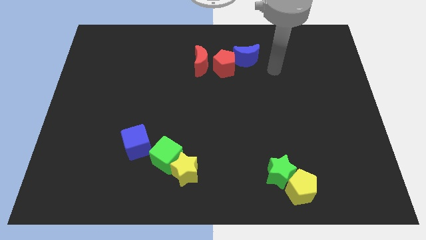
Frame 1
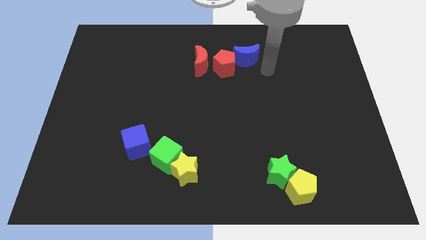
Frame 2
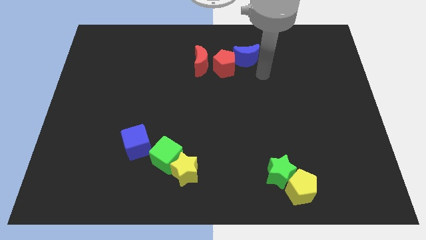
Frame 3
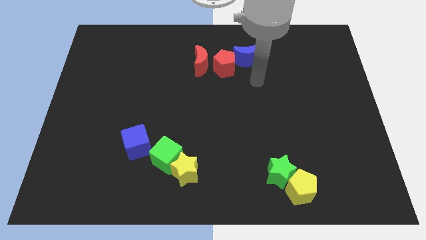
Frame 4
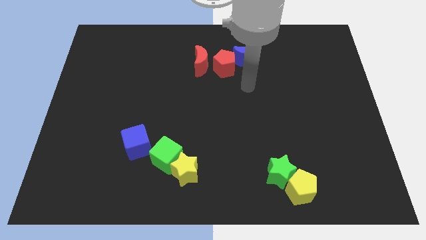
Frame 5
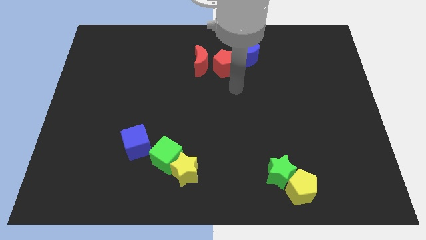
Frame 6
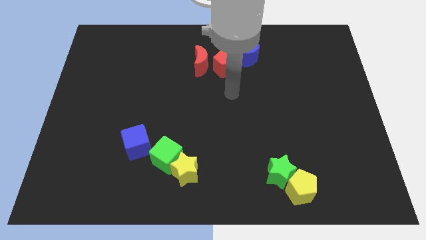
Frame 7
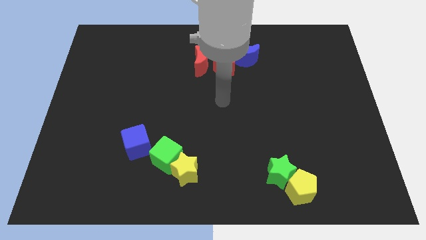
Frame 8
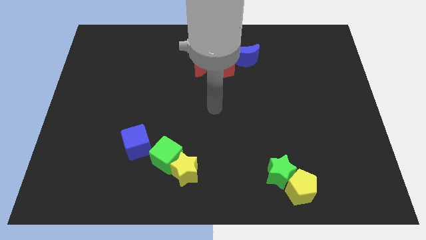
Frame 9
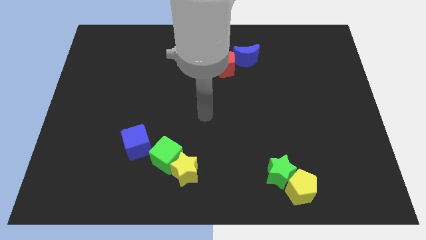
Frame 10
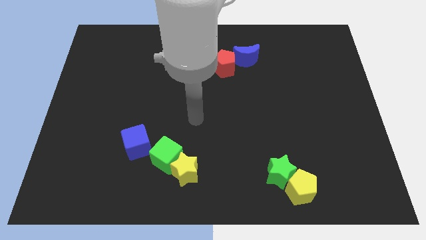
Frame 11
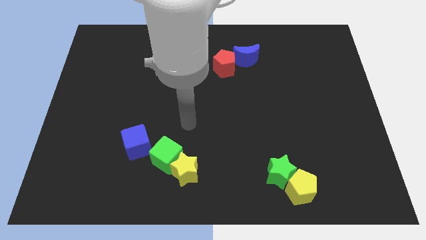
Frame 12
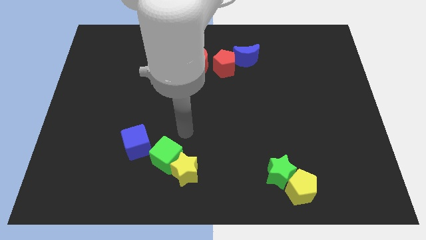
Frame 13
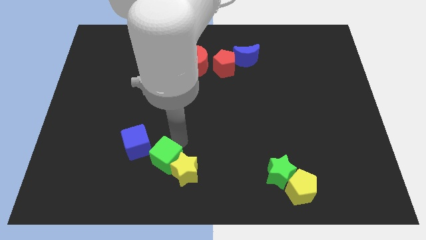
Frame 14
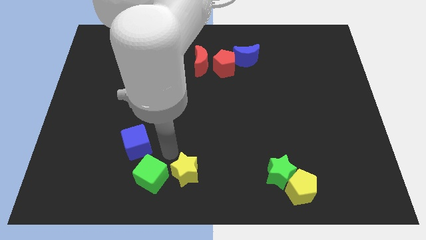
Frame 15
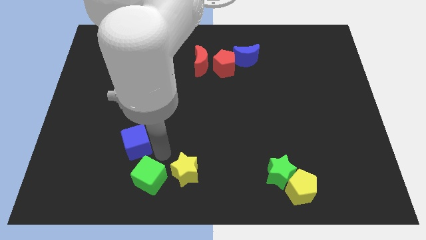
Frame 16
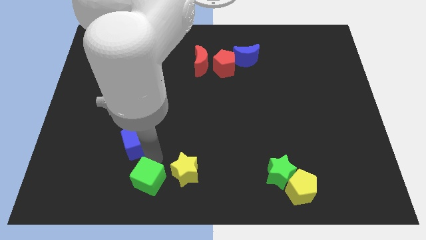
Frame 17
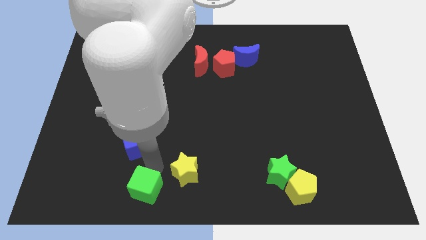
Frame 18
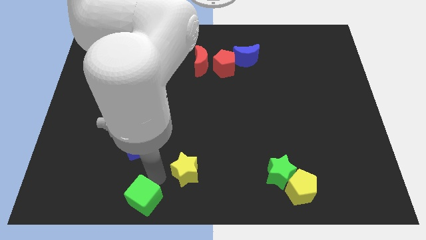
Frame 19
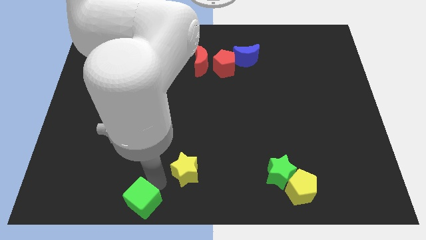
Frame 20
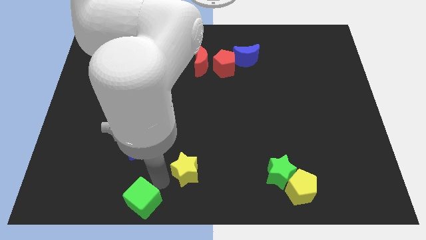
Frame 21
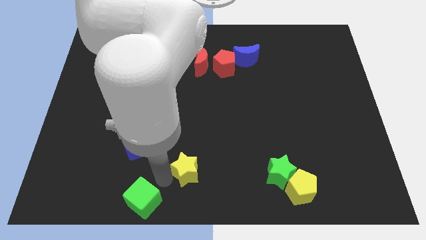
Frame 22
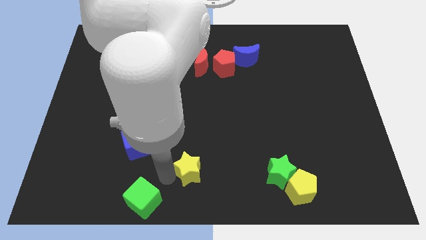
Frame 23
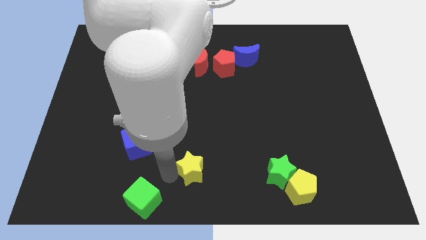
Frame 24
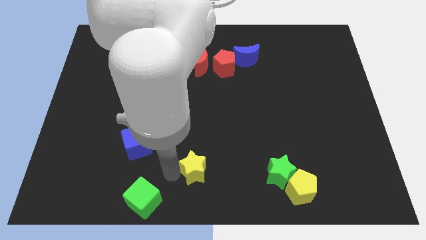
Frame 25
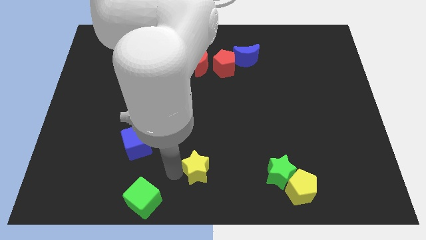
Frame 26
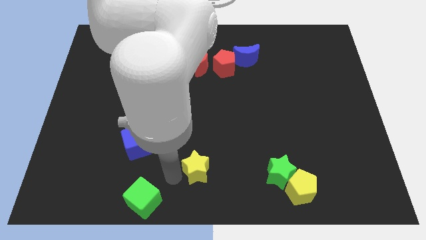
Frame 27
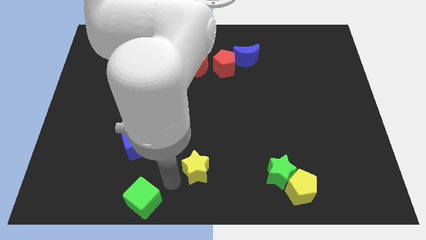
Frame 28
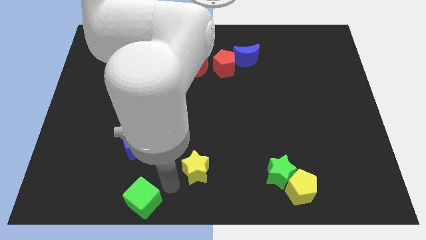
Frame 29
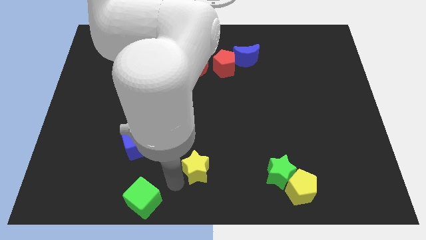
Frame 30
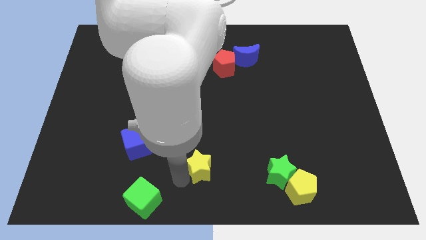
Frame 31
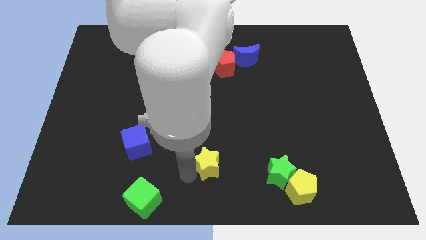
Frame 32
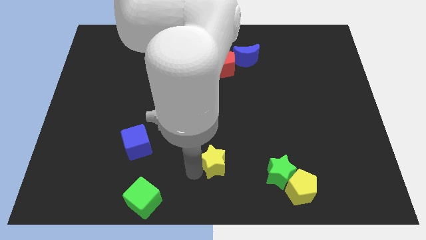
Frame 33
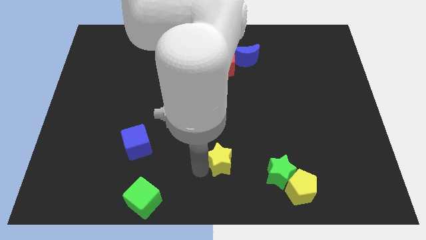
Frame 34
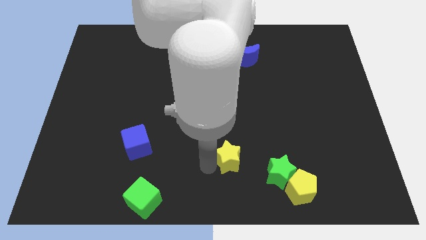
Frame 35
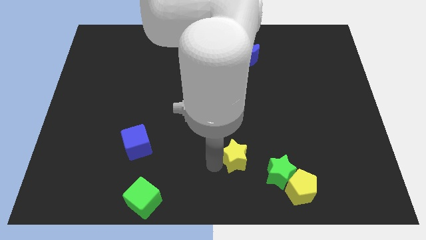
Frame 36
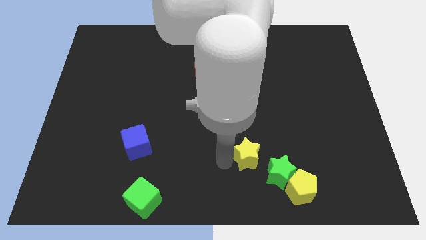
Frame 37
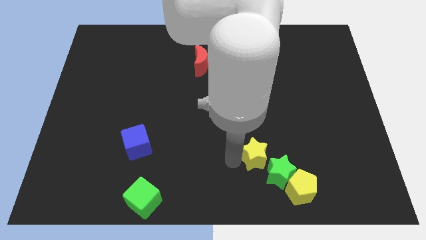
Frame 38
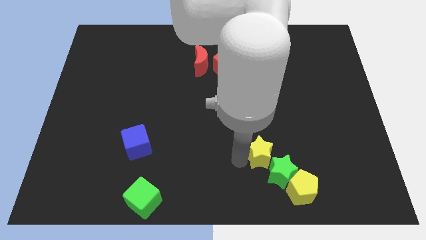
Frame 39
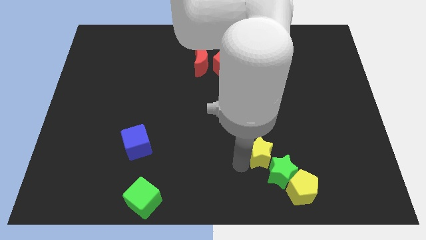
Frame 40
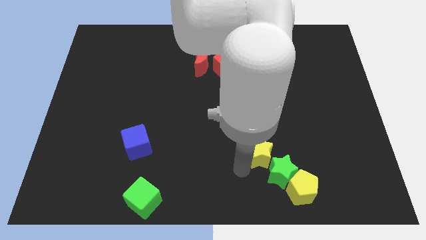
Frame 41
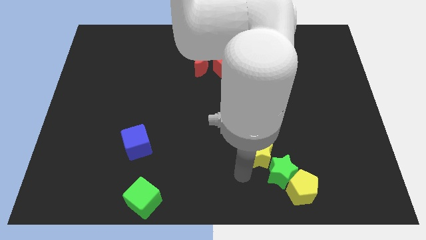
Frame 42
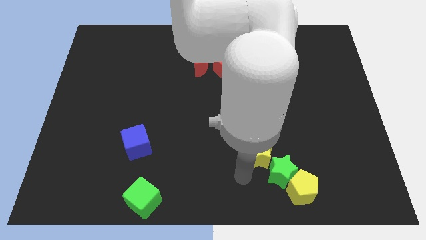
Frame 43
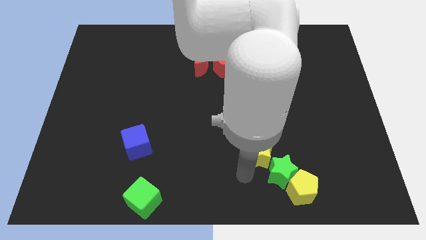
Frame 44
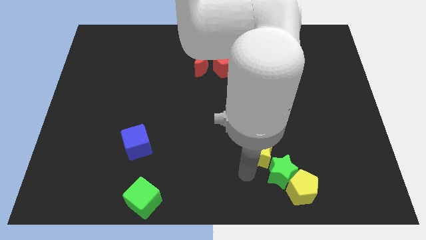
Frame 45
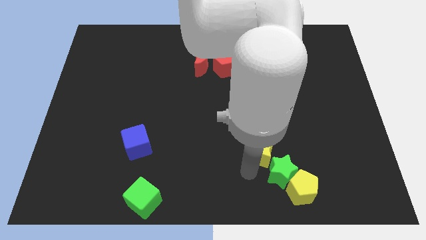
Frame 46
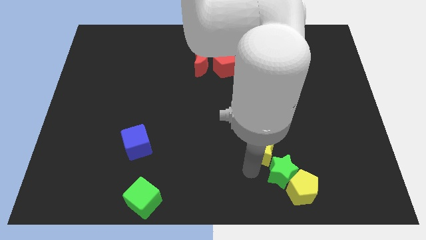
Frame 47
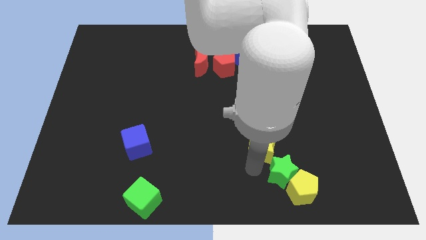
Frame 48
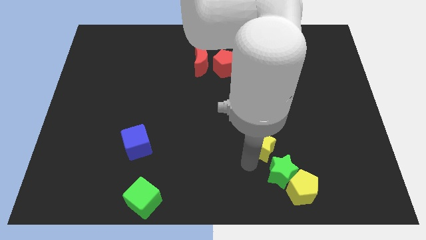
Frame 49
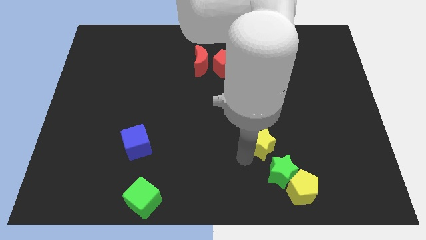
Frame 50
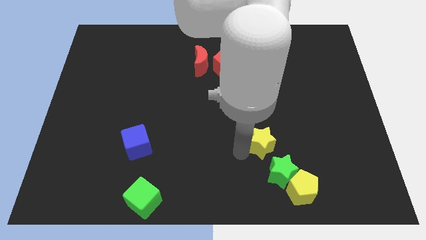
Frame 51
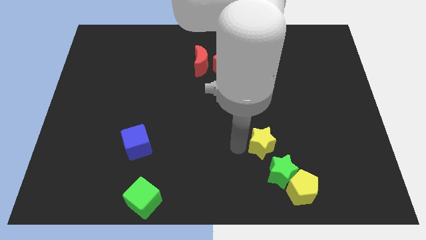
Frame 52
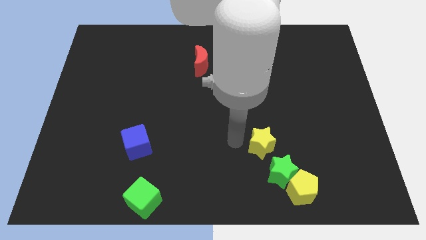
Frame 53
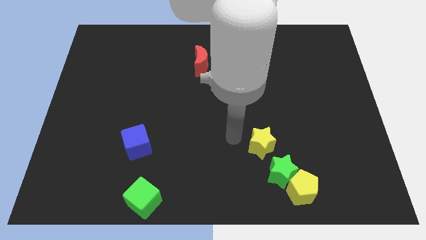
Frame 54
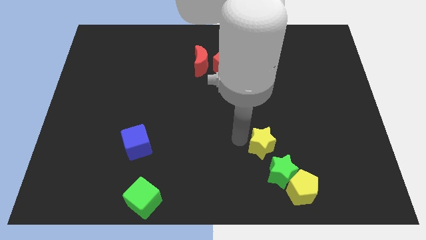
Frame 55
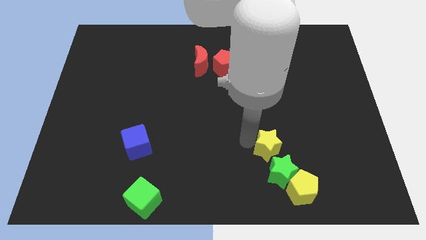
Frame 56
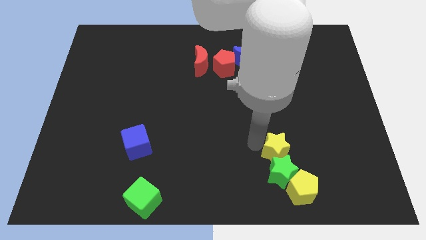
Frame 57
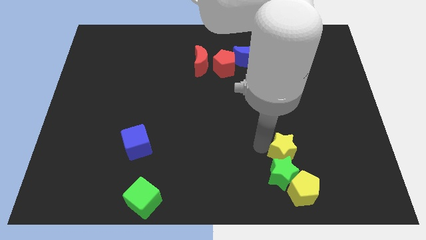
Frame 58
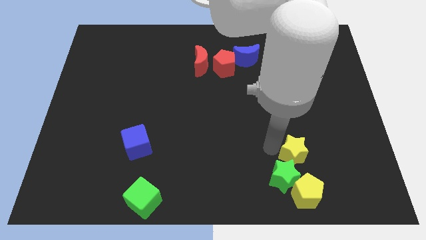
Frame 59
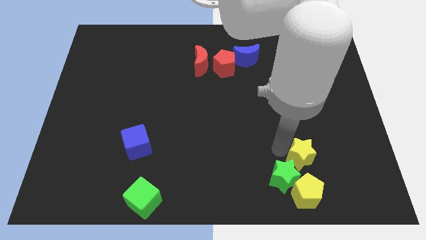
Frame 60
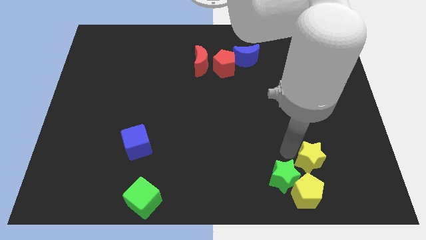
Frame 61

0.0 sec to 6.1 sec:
put the yellow star to the top right of the yellow pentagon

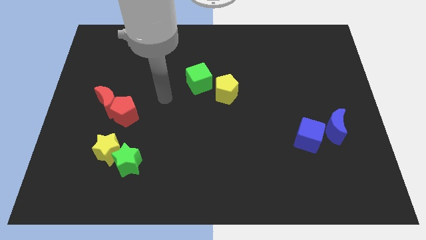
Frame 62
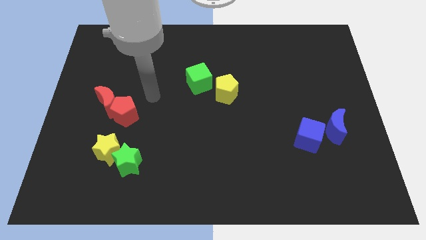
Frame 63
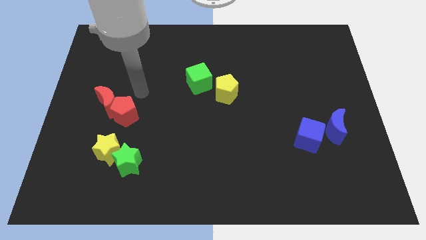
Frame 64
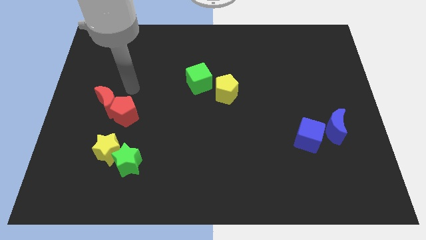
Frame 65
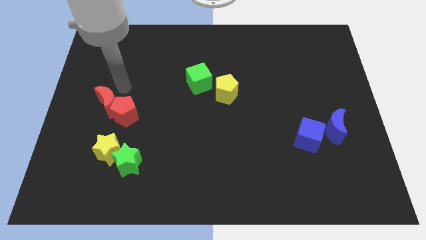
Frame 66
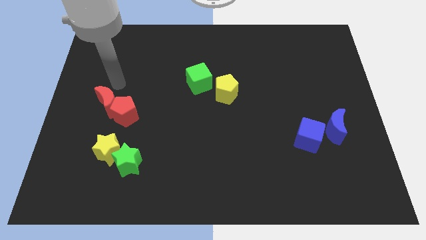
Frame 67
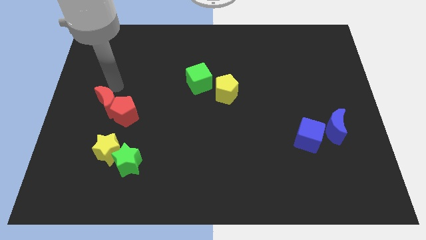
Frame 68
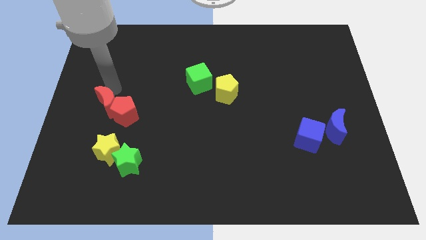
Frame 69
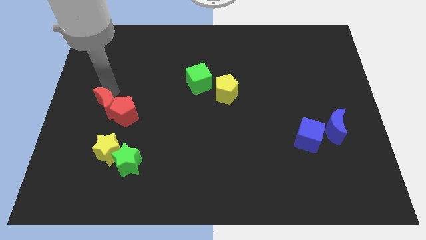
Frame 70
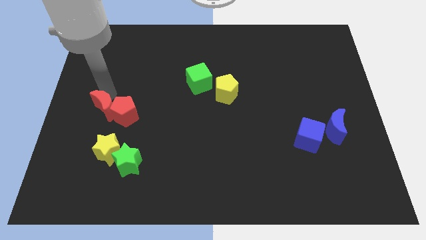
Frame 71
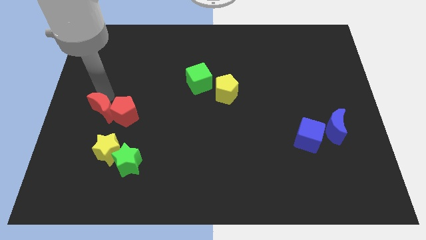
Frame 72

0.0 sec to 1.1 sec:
slide the red moon to the bottom left side of the red pentagon

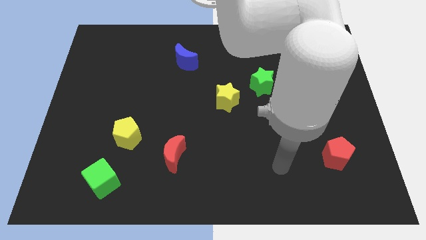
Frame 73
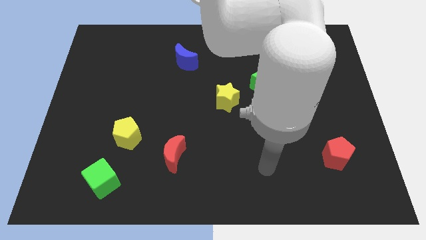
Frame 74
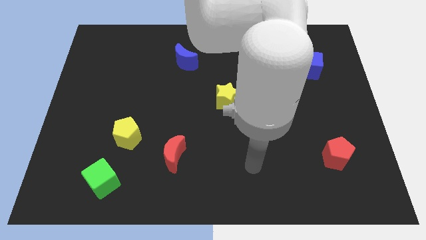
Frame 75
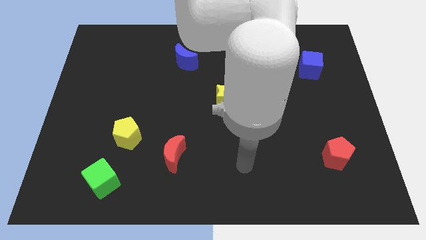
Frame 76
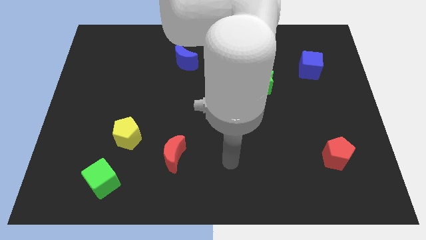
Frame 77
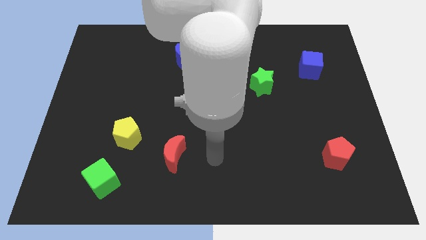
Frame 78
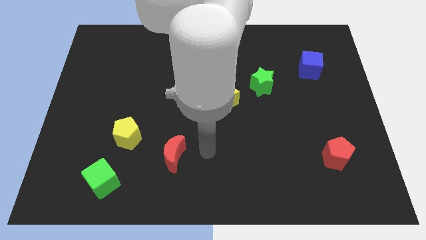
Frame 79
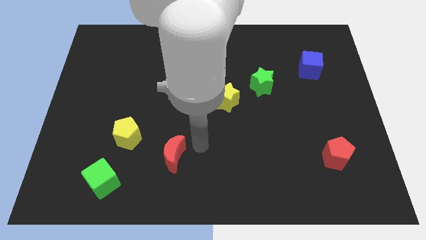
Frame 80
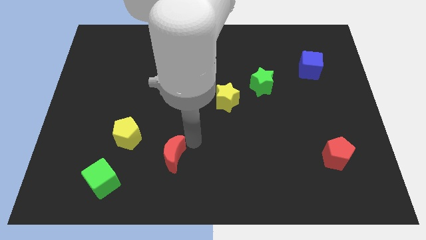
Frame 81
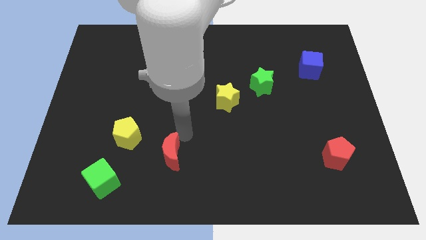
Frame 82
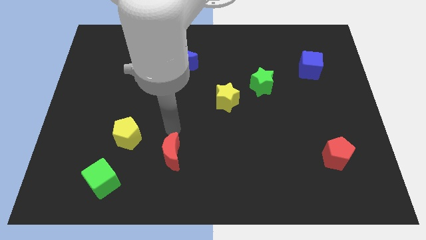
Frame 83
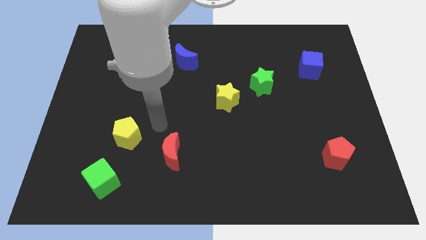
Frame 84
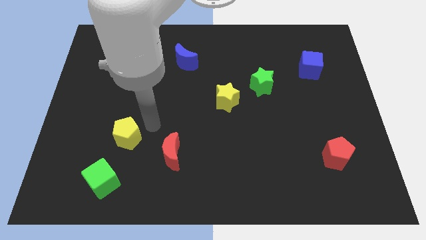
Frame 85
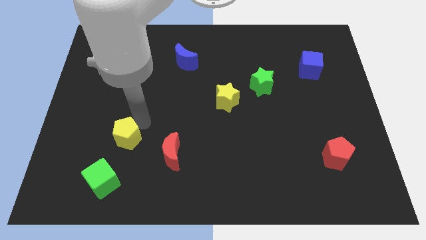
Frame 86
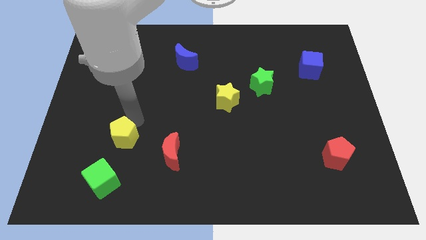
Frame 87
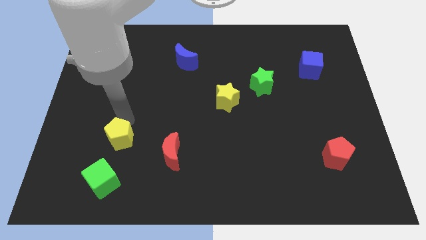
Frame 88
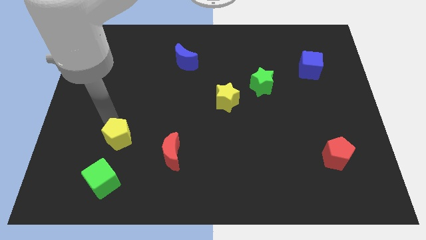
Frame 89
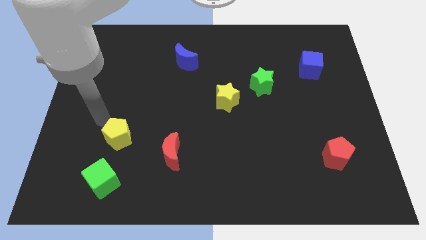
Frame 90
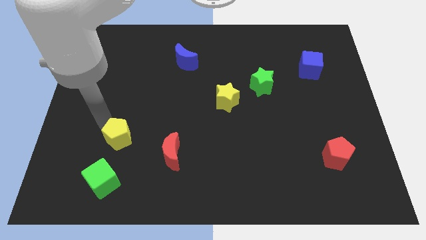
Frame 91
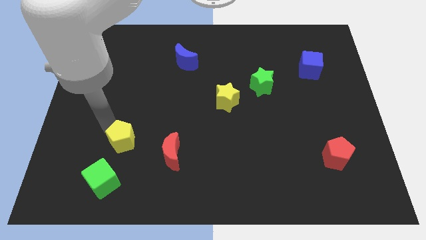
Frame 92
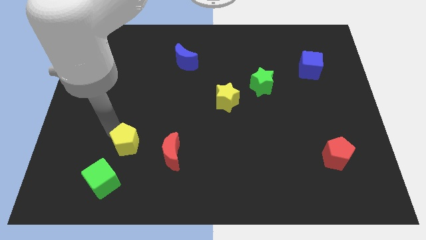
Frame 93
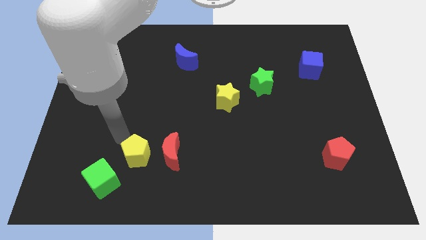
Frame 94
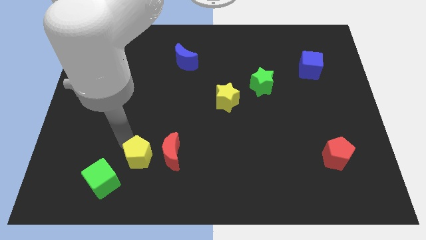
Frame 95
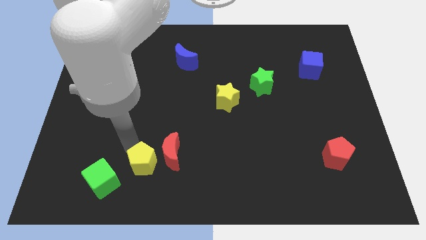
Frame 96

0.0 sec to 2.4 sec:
slide the yellow pentagon to the right of the green cube
